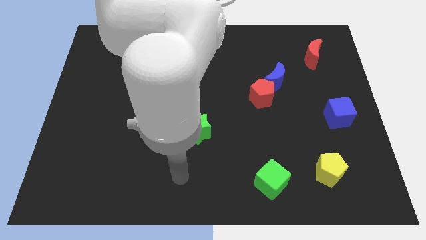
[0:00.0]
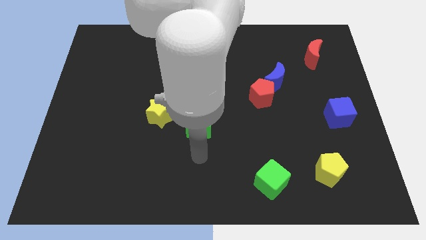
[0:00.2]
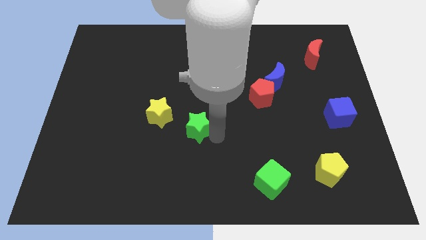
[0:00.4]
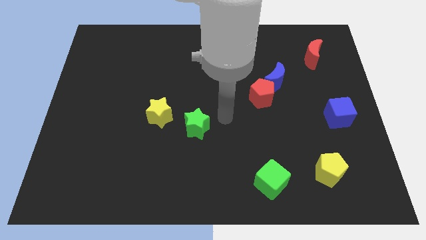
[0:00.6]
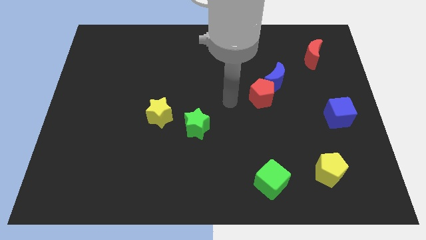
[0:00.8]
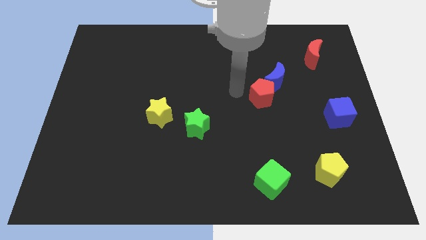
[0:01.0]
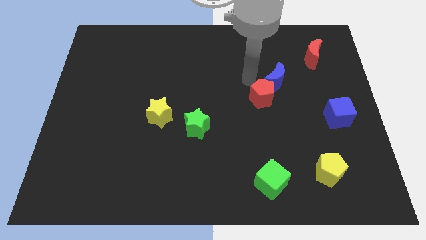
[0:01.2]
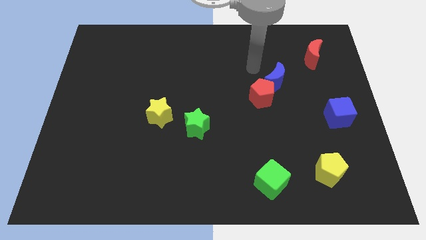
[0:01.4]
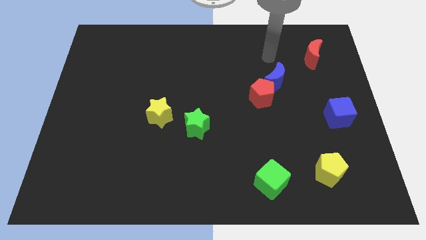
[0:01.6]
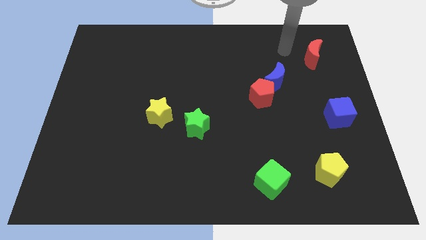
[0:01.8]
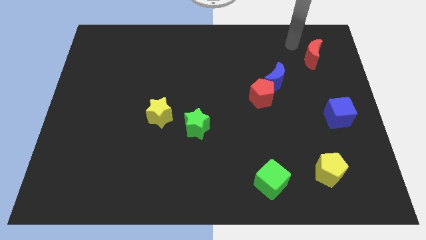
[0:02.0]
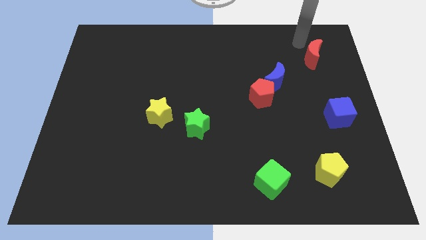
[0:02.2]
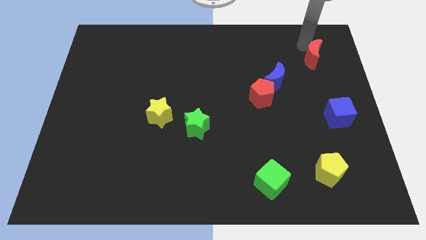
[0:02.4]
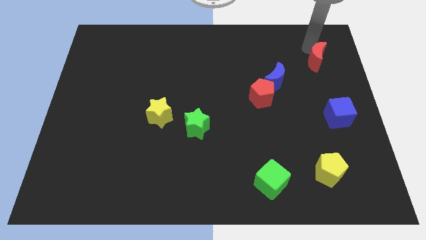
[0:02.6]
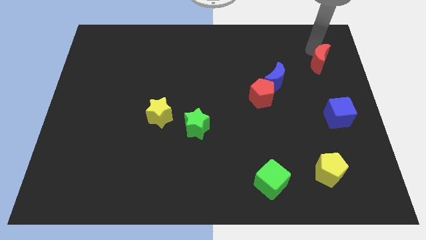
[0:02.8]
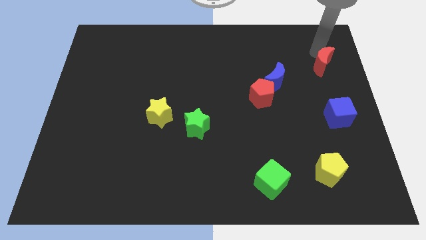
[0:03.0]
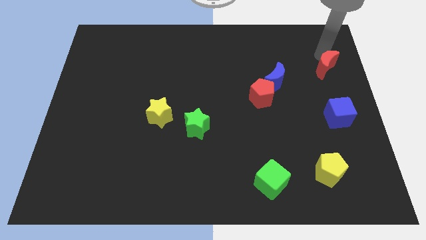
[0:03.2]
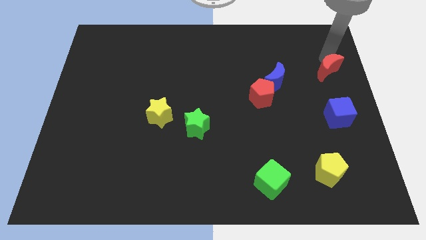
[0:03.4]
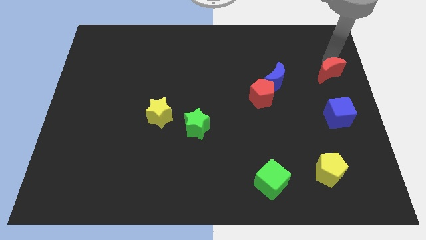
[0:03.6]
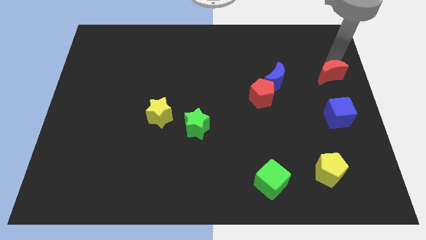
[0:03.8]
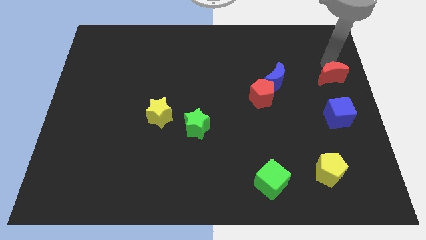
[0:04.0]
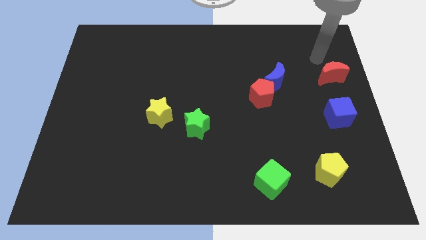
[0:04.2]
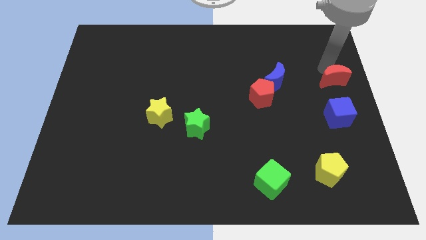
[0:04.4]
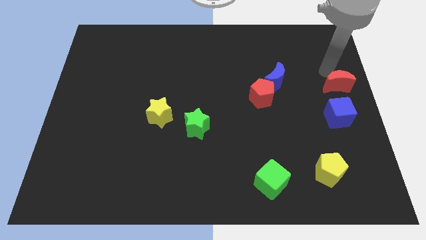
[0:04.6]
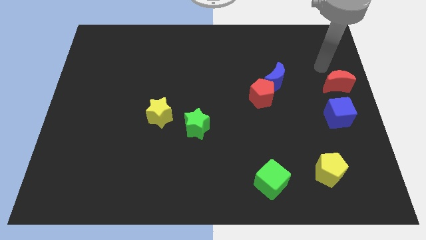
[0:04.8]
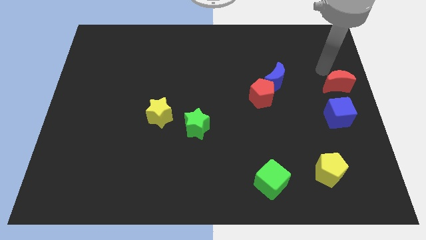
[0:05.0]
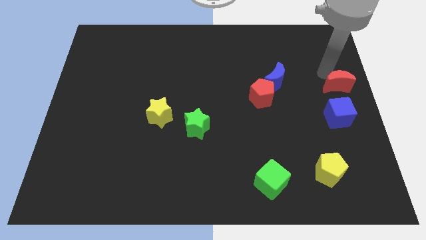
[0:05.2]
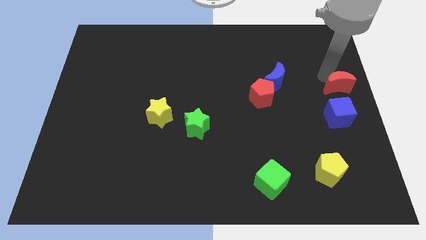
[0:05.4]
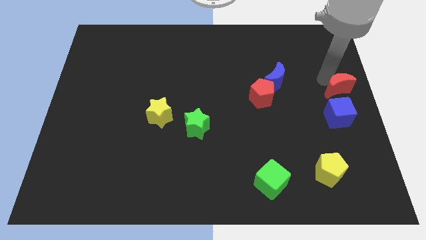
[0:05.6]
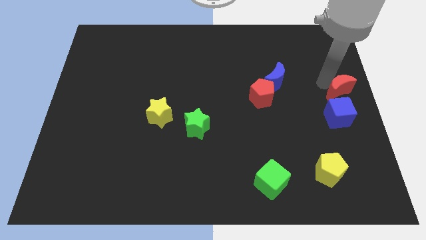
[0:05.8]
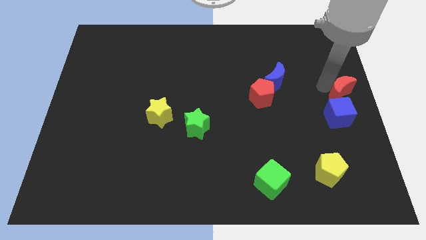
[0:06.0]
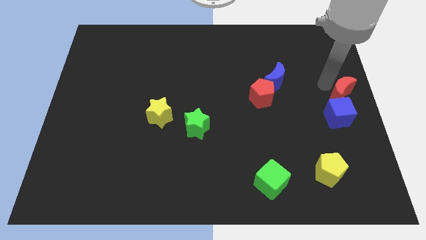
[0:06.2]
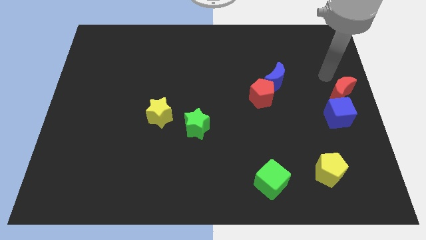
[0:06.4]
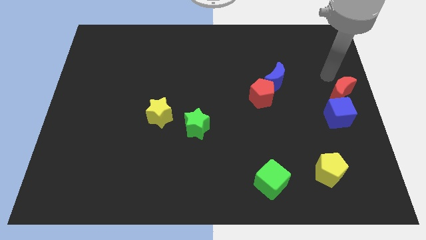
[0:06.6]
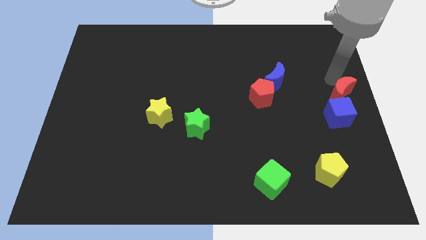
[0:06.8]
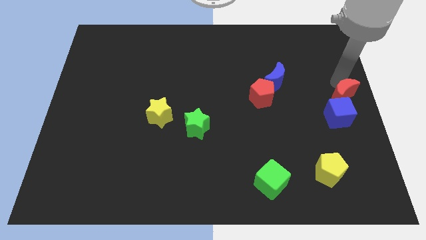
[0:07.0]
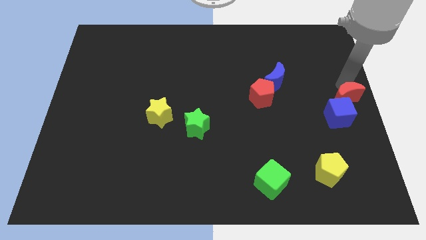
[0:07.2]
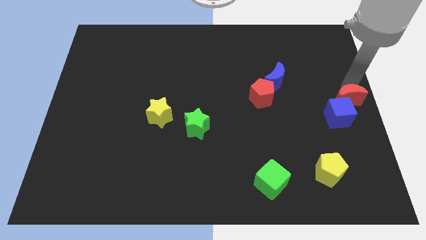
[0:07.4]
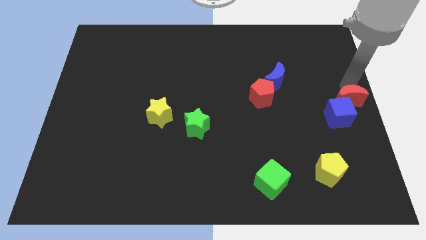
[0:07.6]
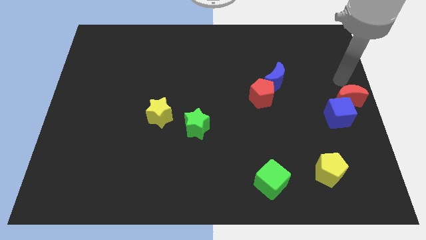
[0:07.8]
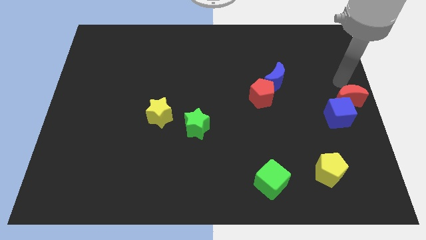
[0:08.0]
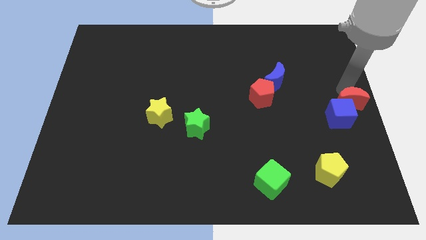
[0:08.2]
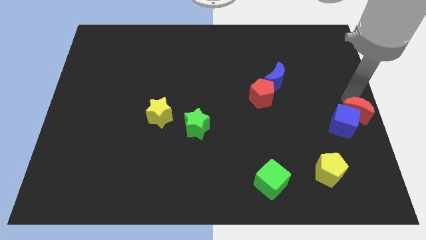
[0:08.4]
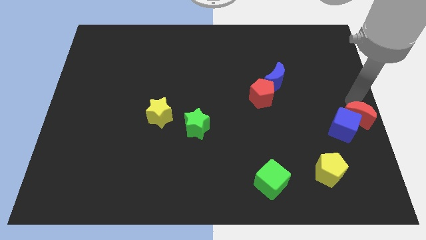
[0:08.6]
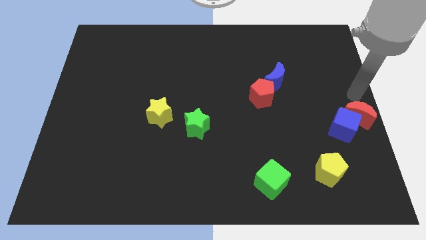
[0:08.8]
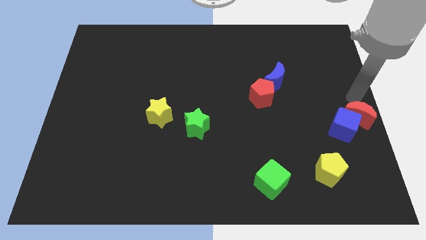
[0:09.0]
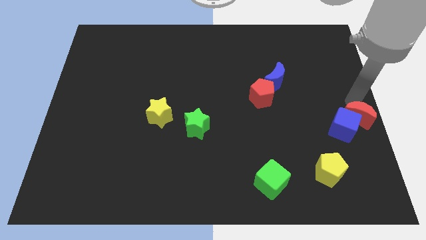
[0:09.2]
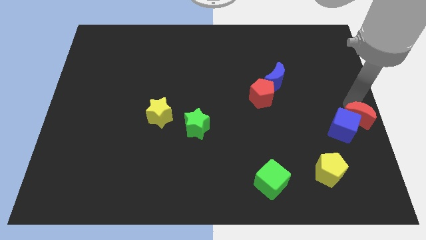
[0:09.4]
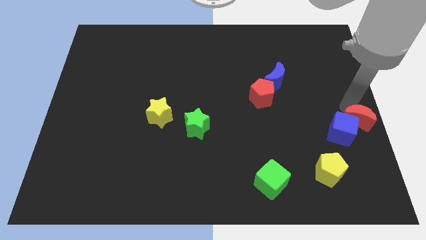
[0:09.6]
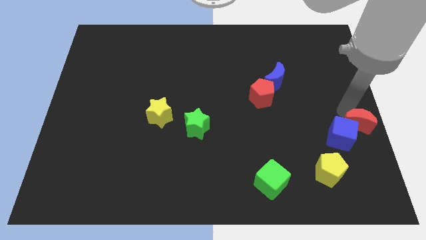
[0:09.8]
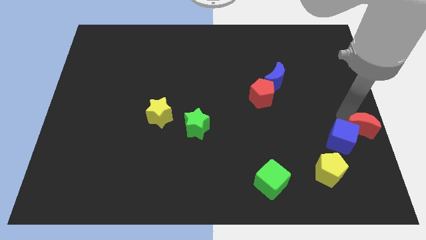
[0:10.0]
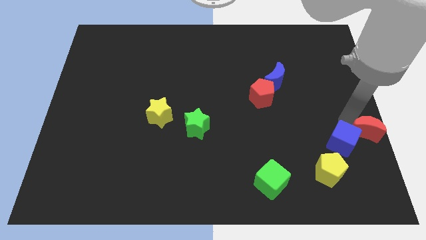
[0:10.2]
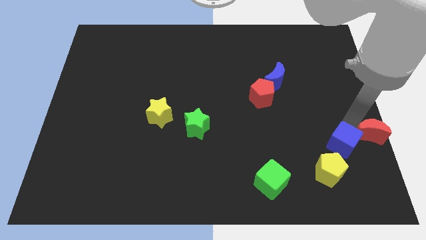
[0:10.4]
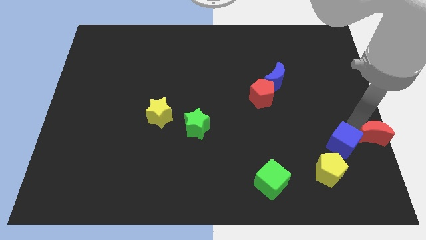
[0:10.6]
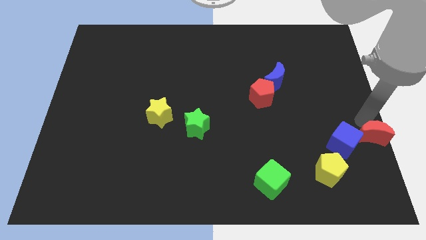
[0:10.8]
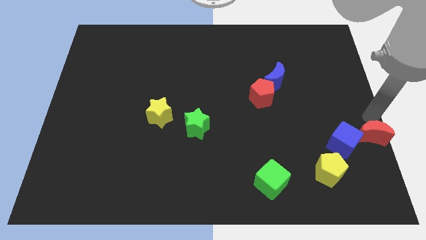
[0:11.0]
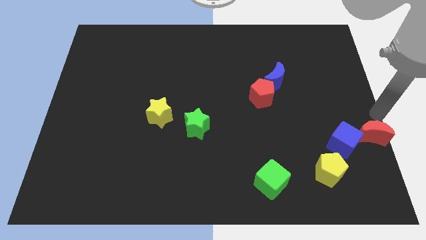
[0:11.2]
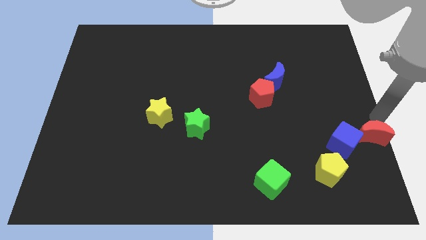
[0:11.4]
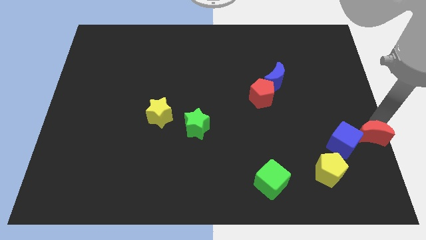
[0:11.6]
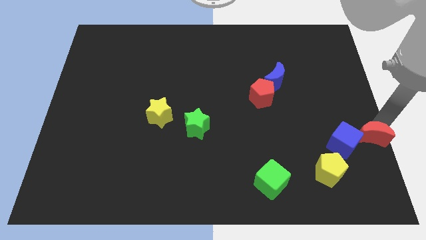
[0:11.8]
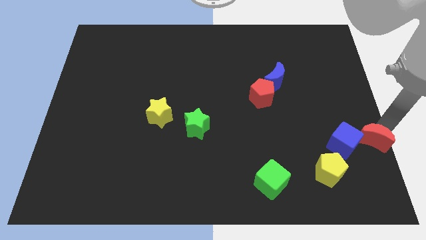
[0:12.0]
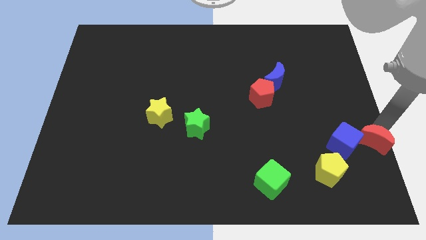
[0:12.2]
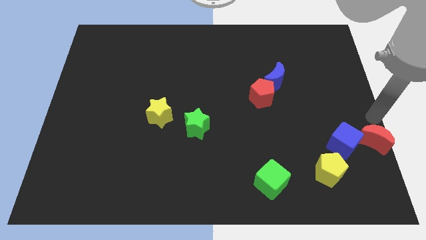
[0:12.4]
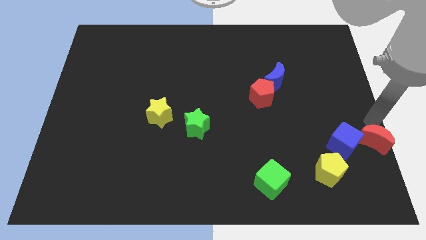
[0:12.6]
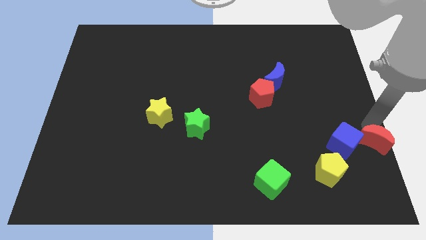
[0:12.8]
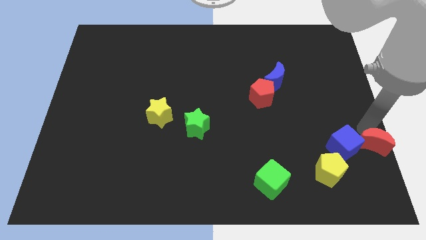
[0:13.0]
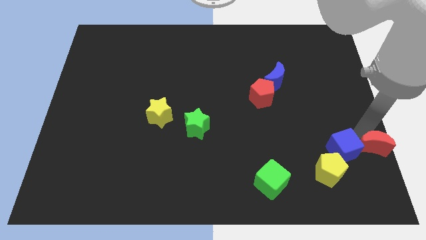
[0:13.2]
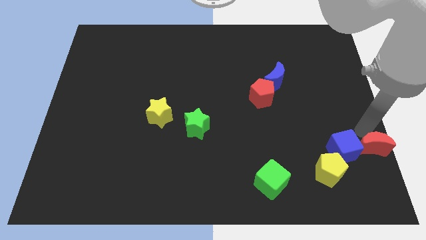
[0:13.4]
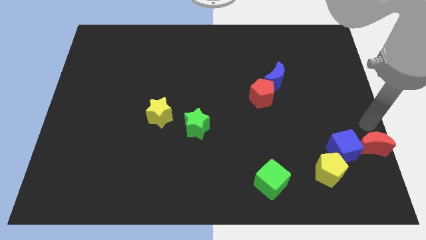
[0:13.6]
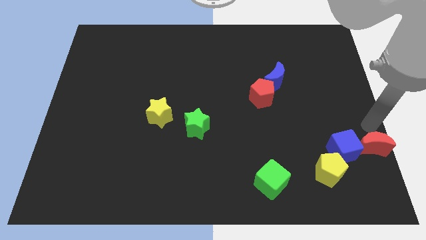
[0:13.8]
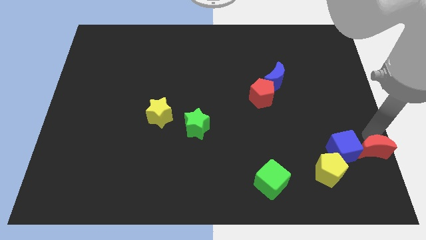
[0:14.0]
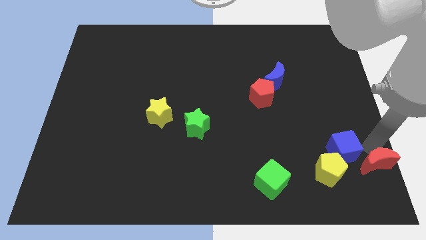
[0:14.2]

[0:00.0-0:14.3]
move the red moon to the bottom right corner
